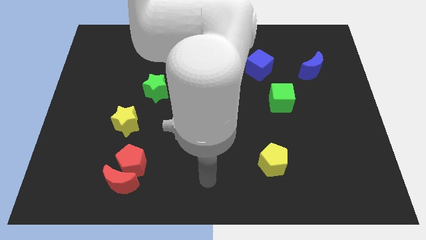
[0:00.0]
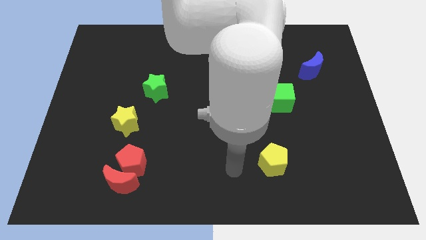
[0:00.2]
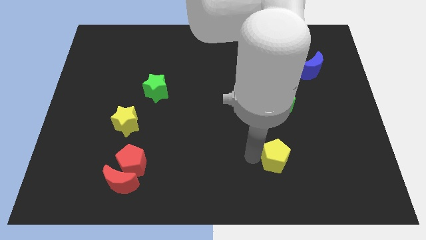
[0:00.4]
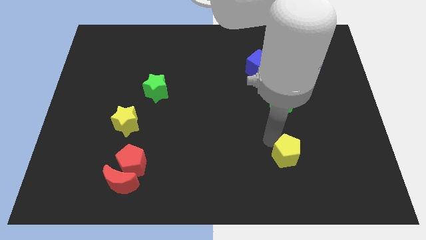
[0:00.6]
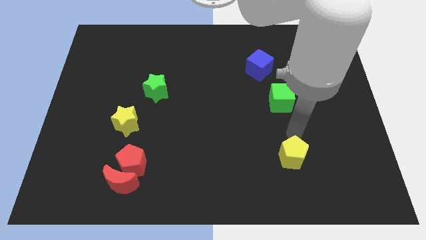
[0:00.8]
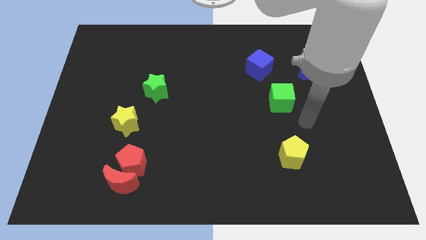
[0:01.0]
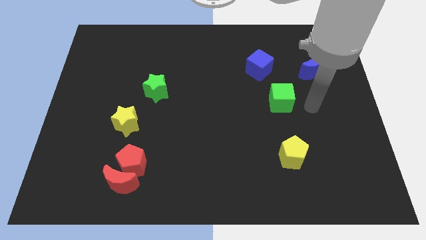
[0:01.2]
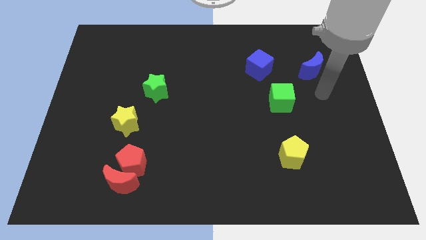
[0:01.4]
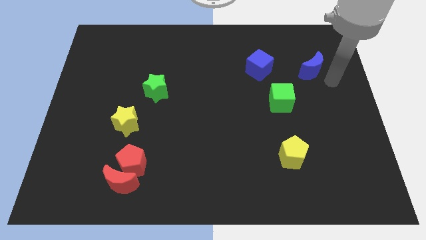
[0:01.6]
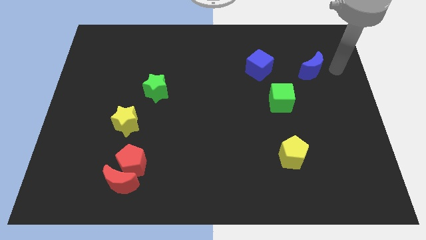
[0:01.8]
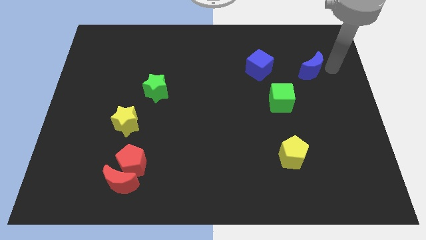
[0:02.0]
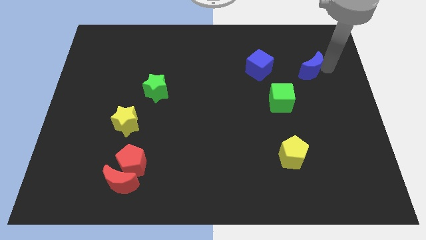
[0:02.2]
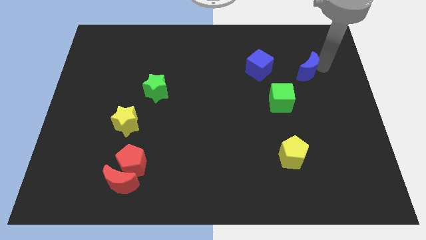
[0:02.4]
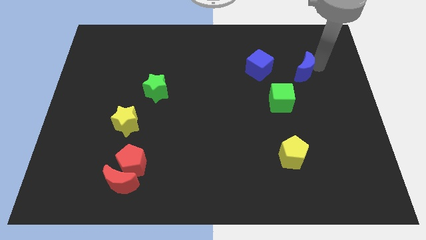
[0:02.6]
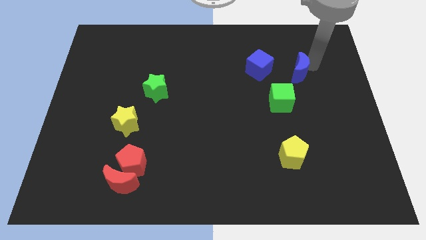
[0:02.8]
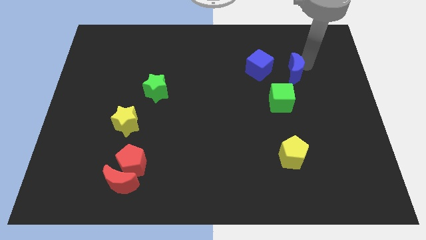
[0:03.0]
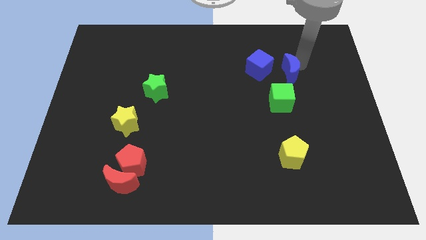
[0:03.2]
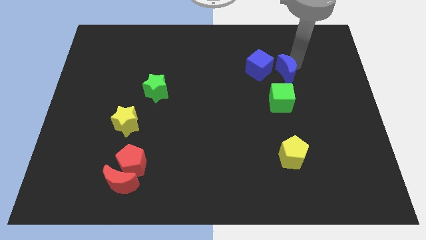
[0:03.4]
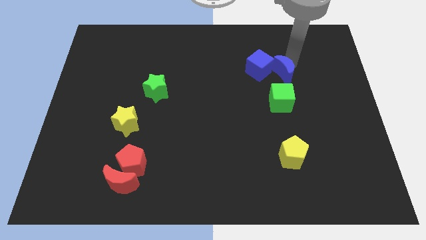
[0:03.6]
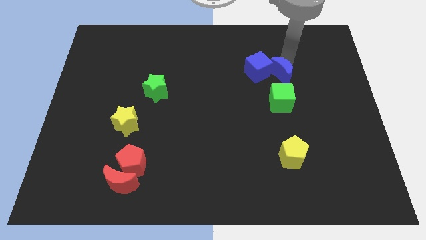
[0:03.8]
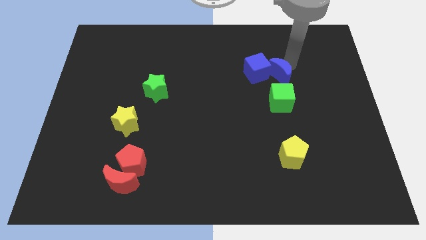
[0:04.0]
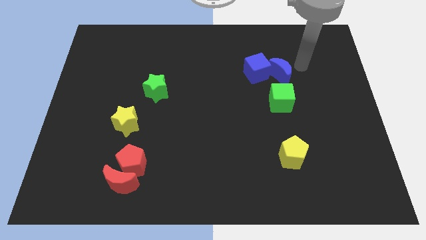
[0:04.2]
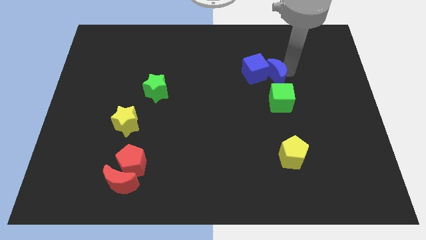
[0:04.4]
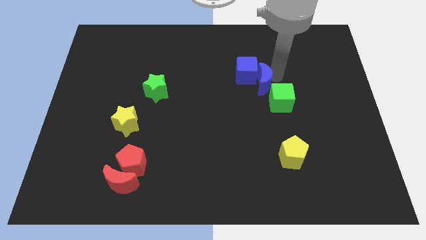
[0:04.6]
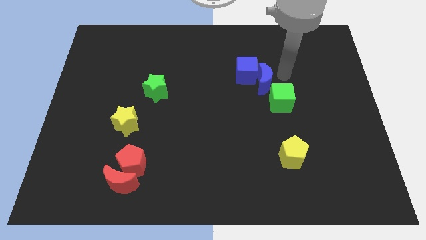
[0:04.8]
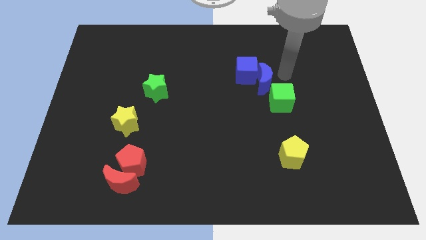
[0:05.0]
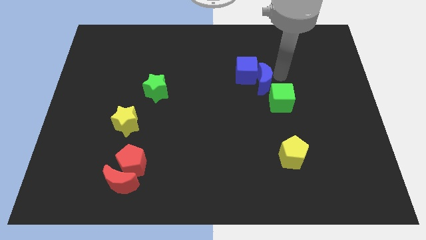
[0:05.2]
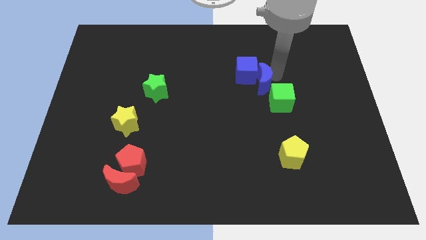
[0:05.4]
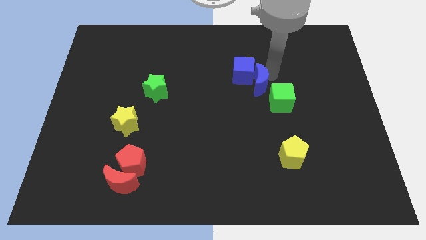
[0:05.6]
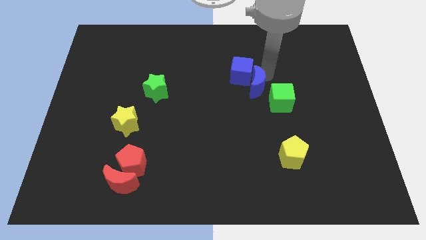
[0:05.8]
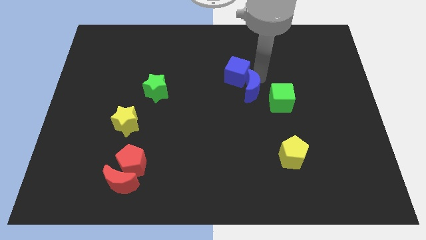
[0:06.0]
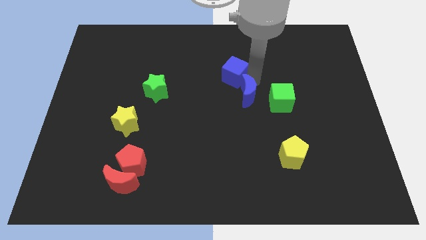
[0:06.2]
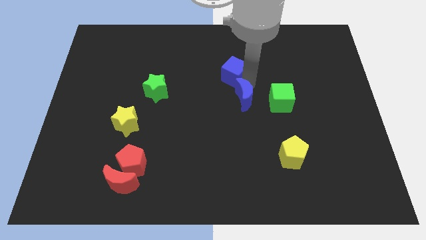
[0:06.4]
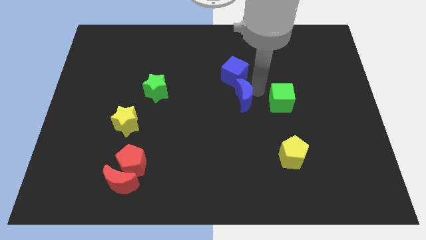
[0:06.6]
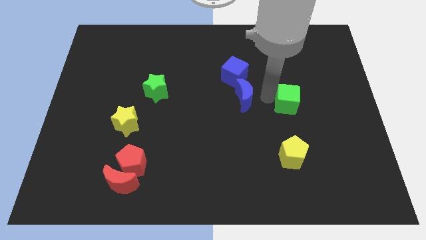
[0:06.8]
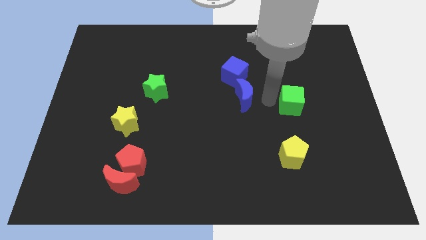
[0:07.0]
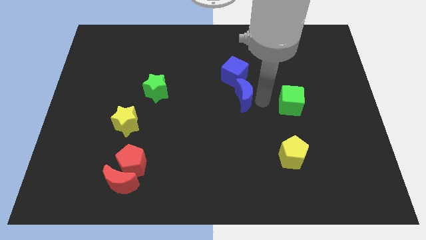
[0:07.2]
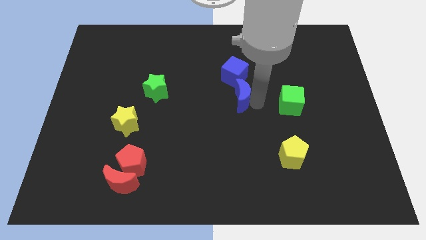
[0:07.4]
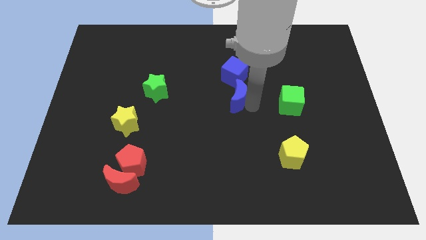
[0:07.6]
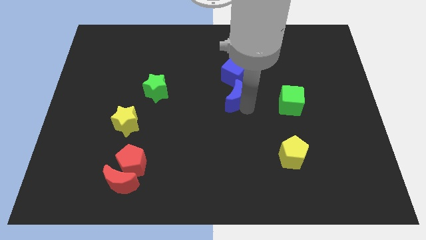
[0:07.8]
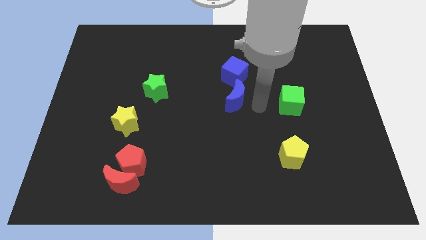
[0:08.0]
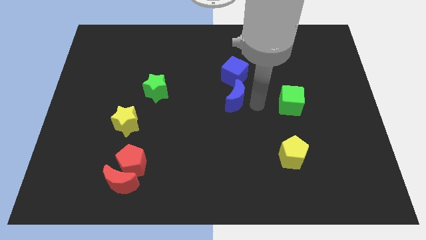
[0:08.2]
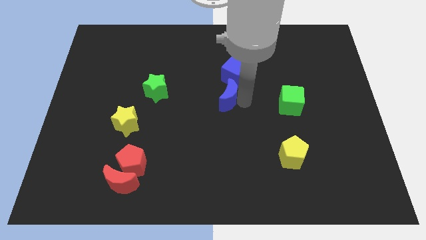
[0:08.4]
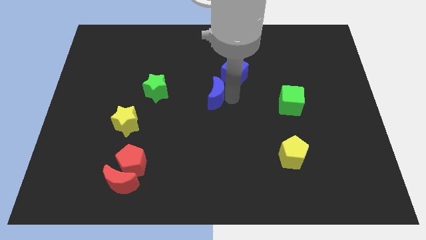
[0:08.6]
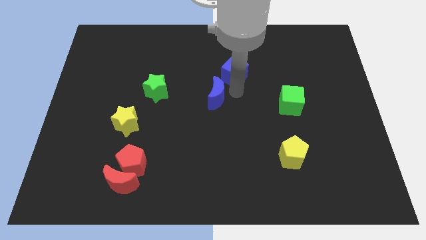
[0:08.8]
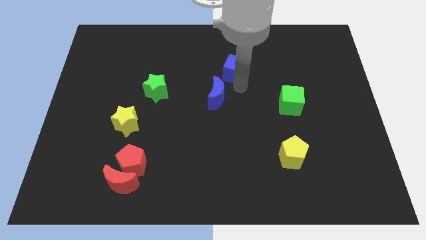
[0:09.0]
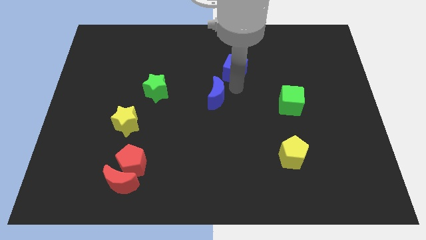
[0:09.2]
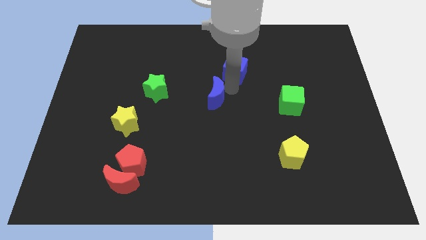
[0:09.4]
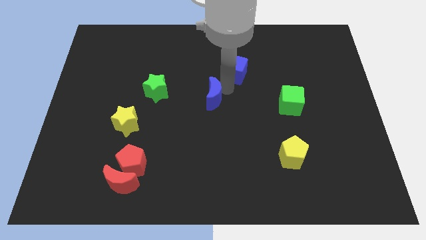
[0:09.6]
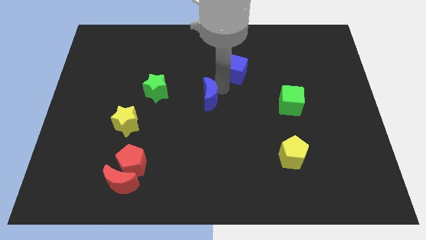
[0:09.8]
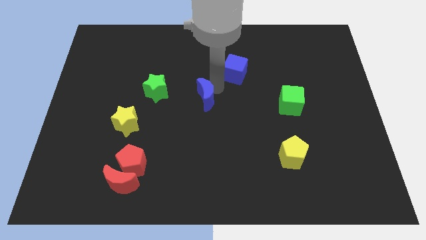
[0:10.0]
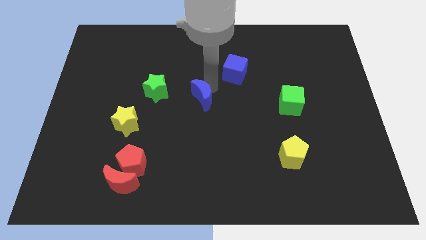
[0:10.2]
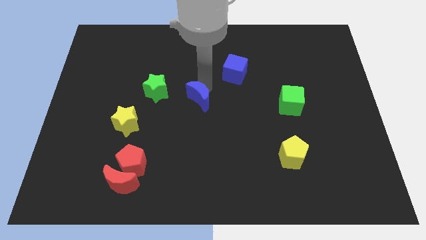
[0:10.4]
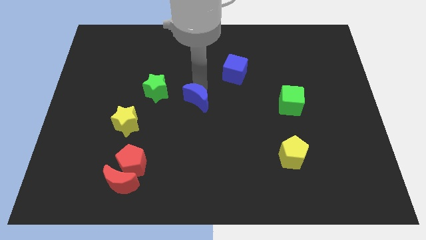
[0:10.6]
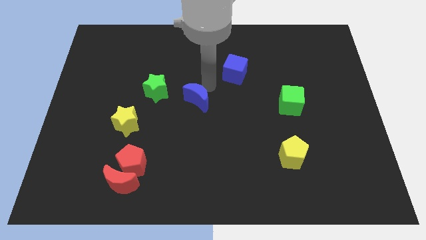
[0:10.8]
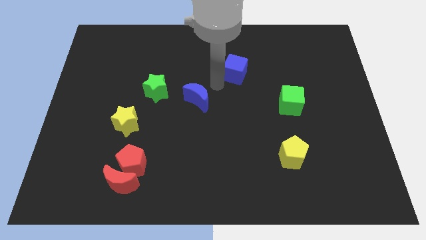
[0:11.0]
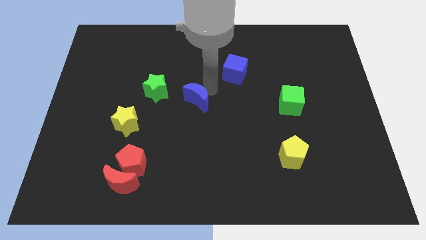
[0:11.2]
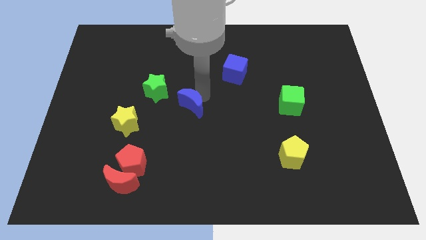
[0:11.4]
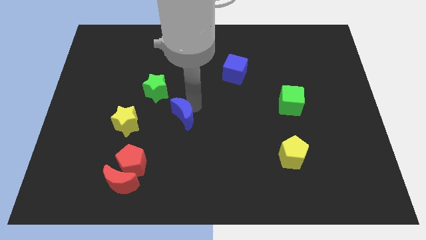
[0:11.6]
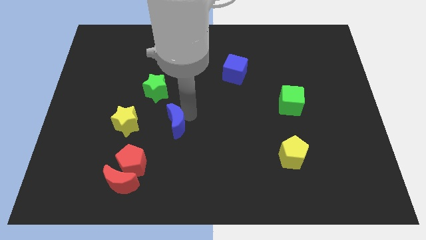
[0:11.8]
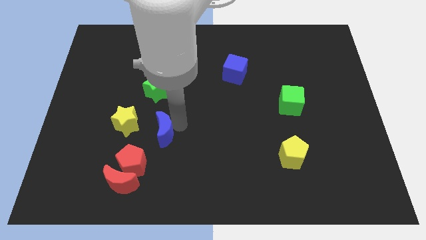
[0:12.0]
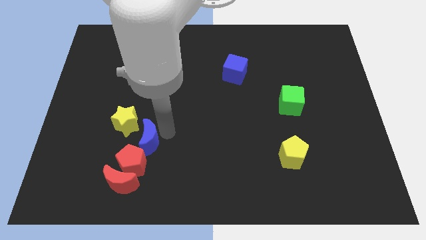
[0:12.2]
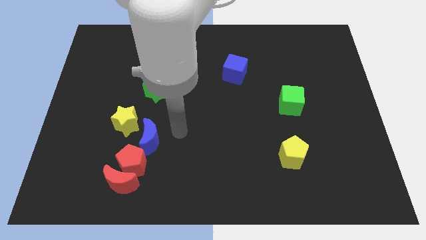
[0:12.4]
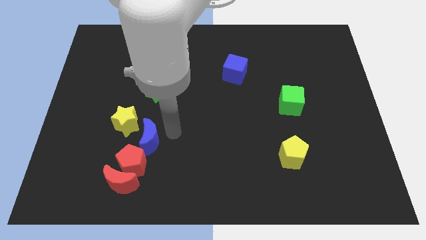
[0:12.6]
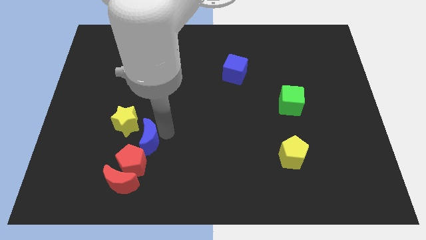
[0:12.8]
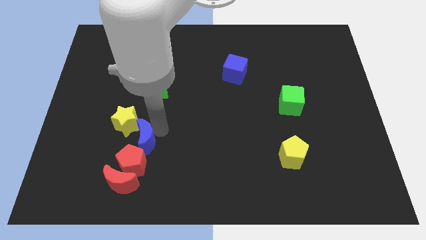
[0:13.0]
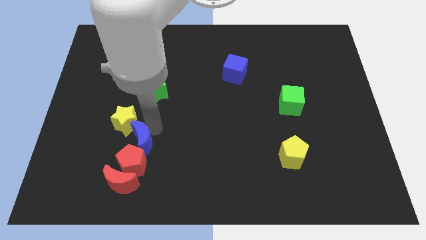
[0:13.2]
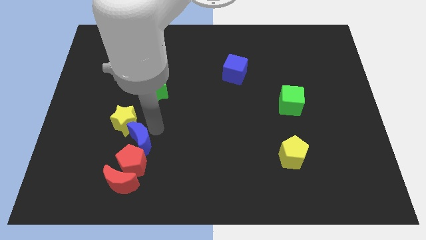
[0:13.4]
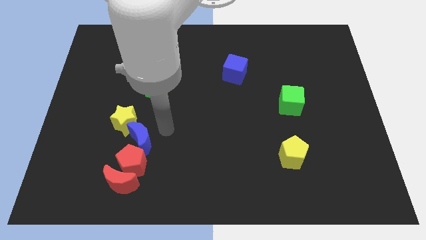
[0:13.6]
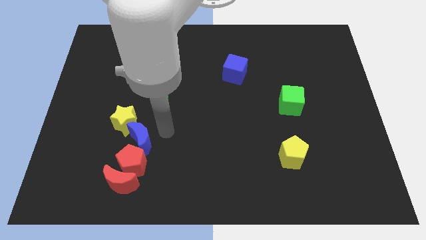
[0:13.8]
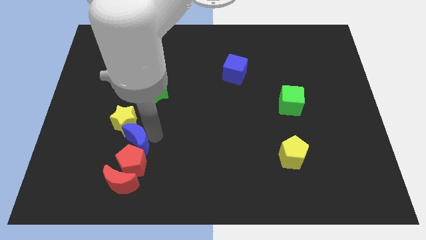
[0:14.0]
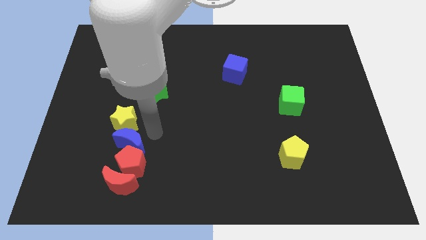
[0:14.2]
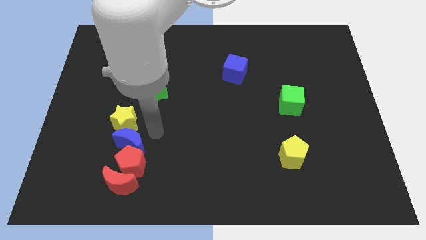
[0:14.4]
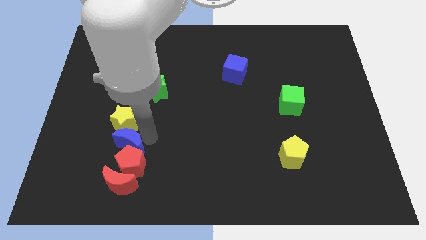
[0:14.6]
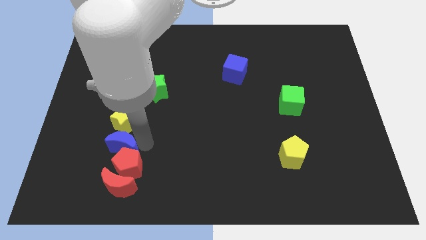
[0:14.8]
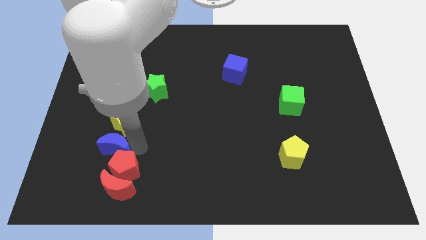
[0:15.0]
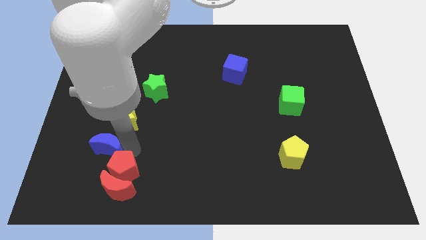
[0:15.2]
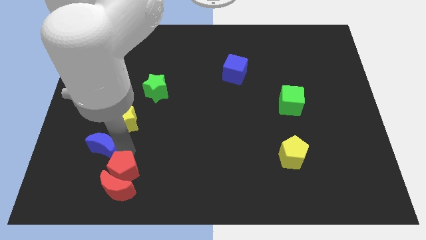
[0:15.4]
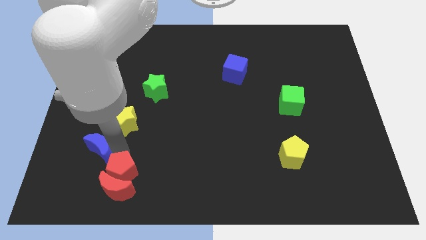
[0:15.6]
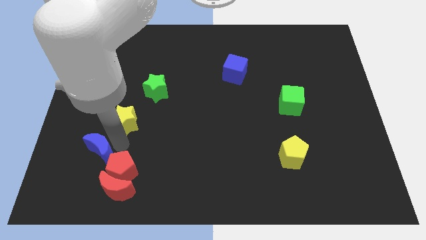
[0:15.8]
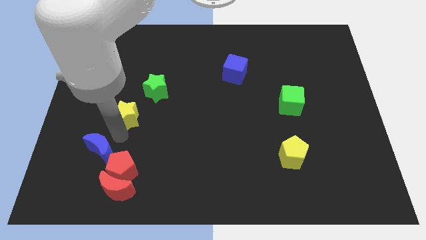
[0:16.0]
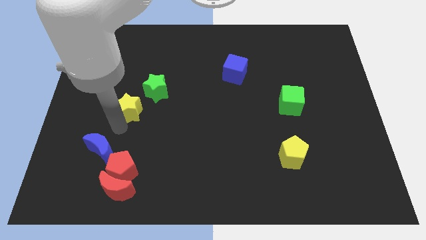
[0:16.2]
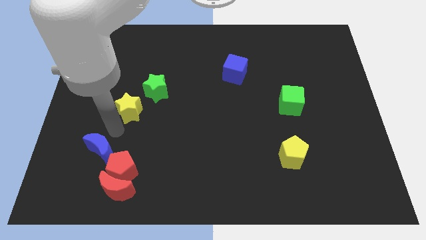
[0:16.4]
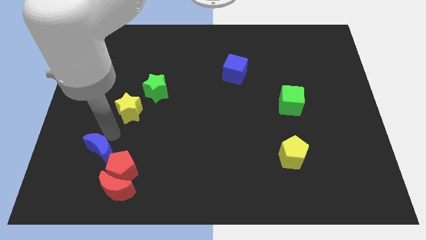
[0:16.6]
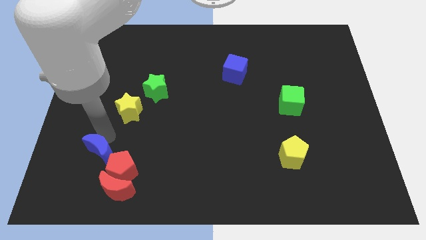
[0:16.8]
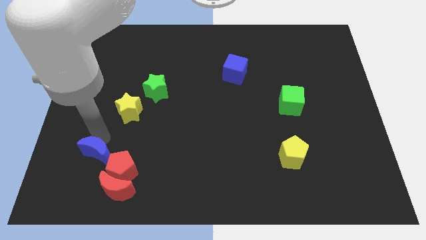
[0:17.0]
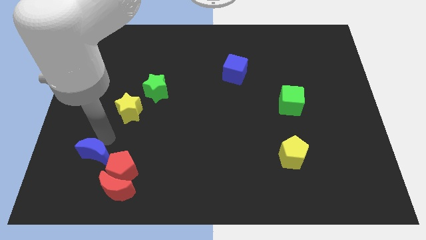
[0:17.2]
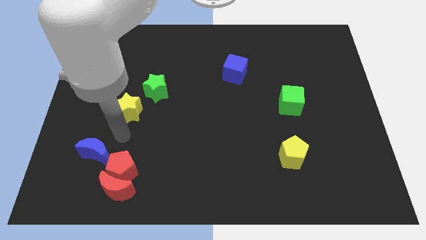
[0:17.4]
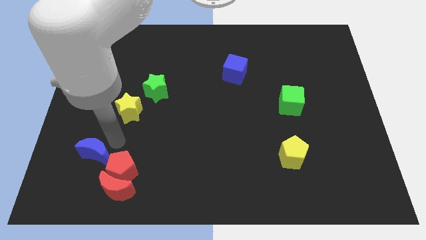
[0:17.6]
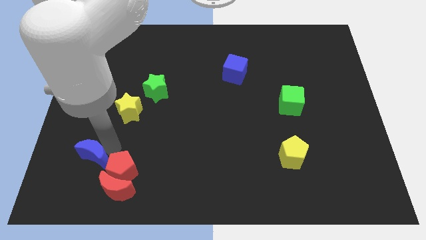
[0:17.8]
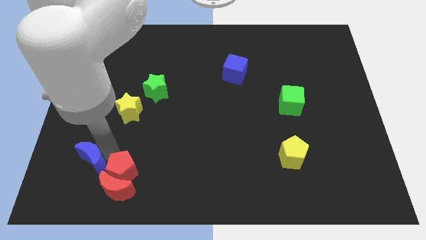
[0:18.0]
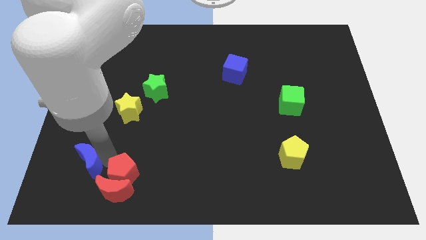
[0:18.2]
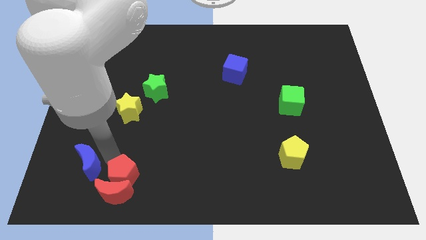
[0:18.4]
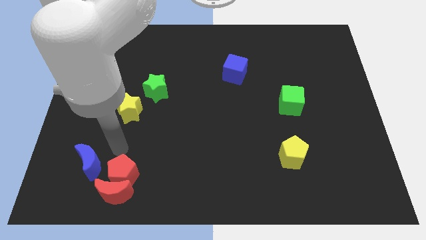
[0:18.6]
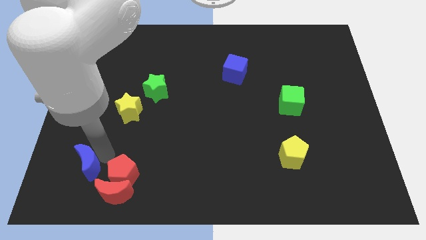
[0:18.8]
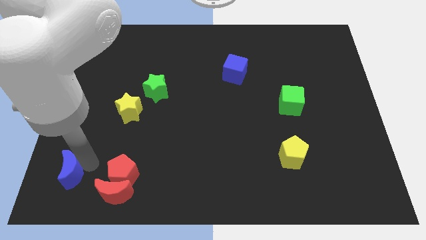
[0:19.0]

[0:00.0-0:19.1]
push the blue moon to the bottom left
